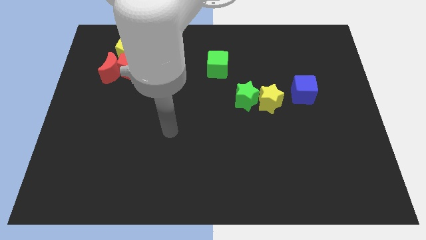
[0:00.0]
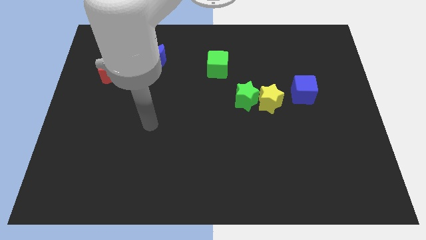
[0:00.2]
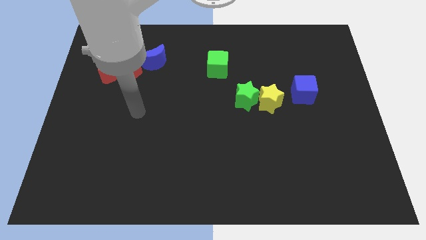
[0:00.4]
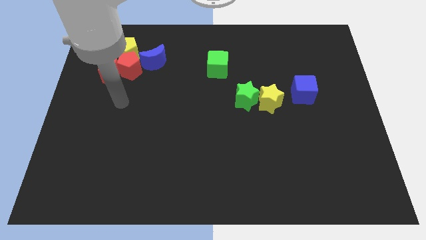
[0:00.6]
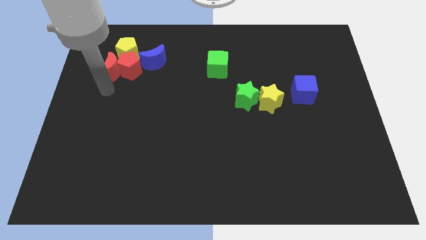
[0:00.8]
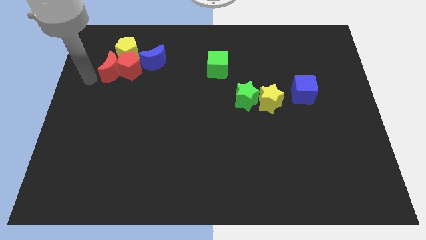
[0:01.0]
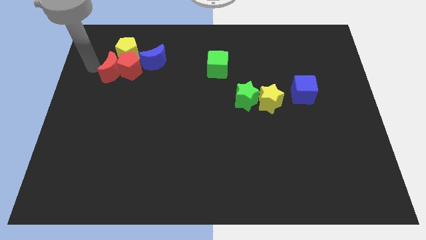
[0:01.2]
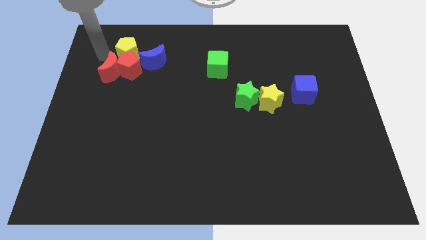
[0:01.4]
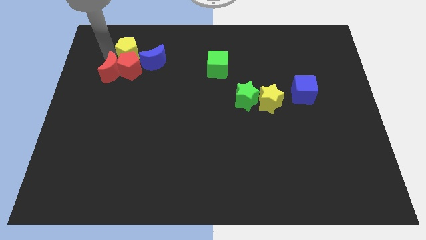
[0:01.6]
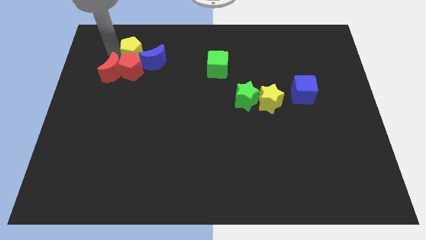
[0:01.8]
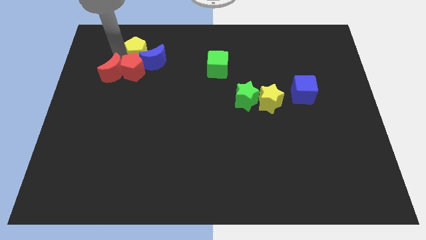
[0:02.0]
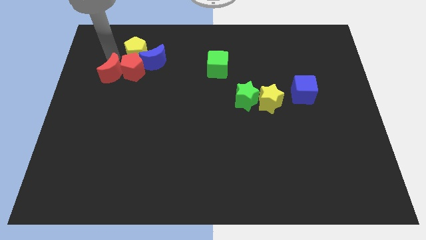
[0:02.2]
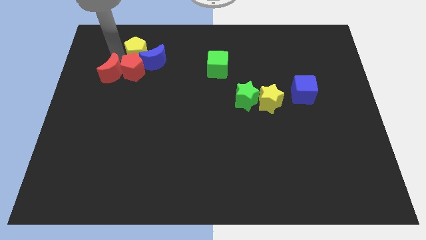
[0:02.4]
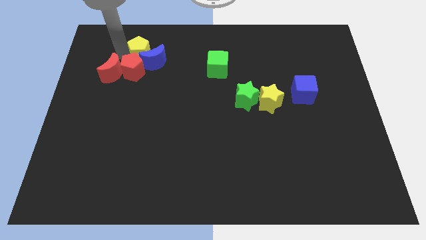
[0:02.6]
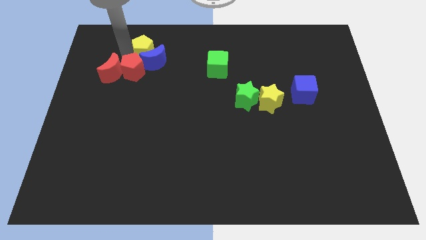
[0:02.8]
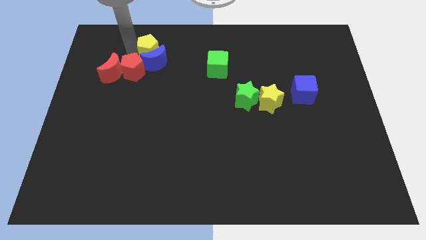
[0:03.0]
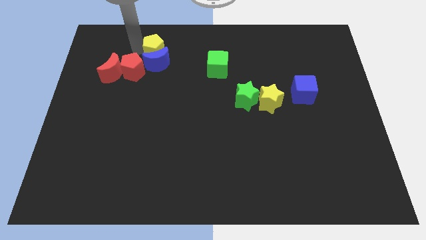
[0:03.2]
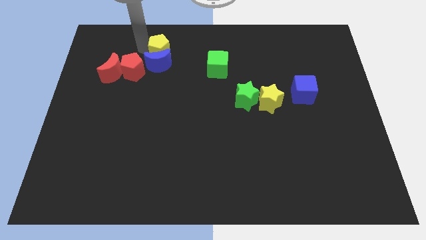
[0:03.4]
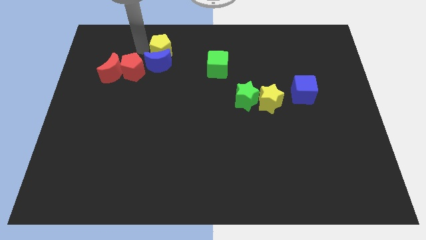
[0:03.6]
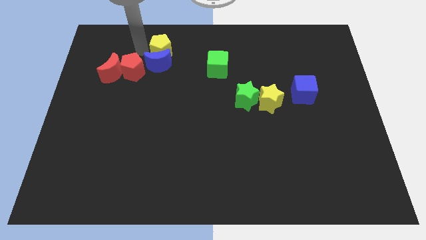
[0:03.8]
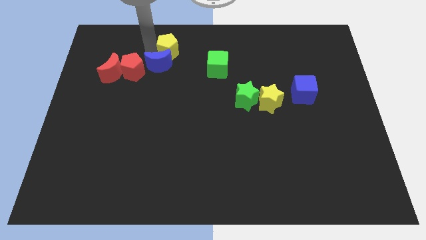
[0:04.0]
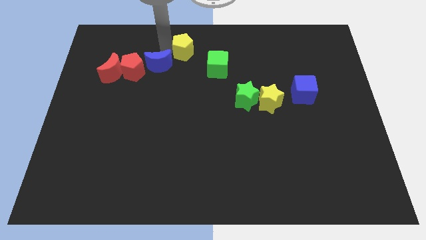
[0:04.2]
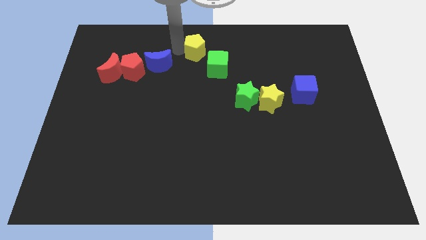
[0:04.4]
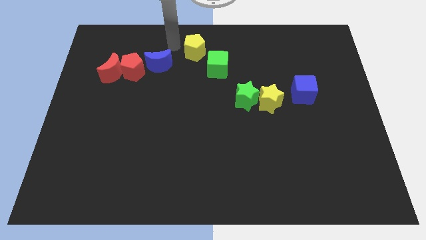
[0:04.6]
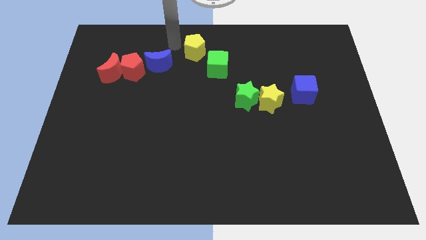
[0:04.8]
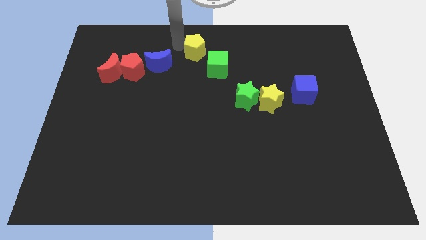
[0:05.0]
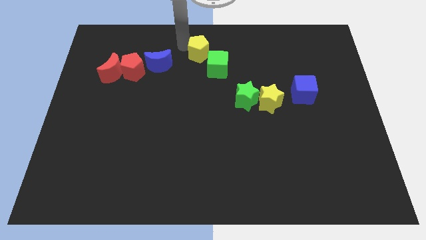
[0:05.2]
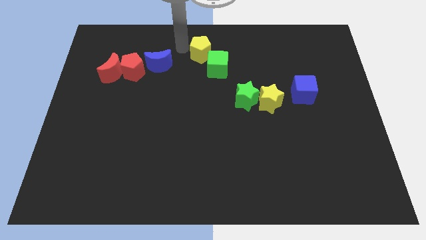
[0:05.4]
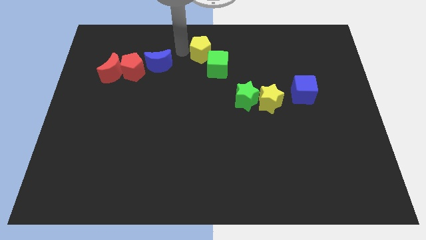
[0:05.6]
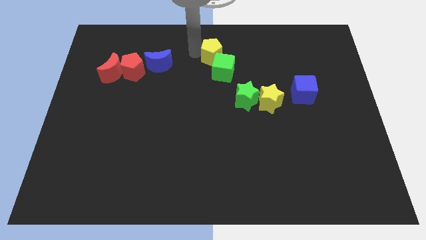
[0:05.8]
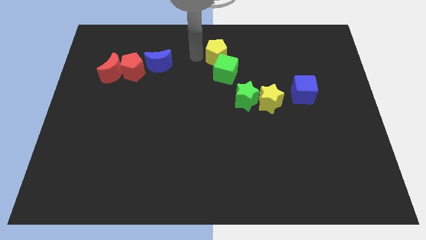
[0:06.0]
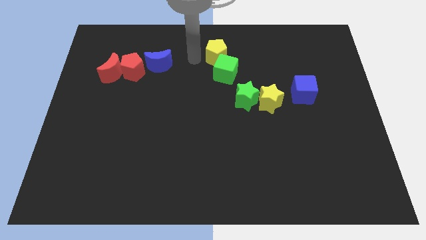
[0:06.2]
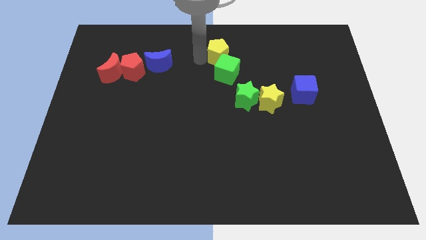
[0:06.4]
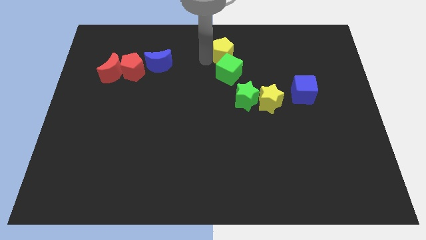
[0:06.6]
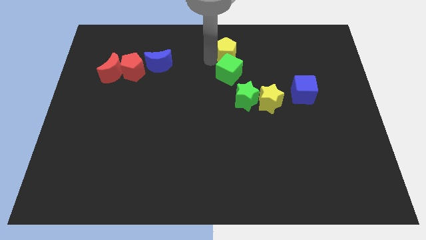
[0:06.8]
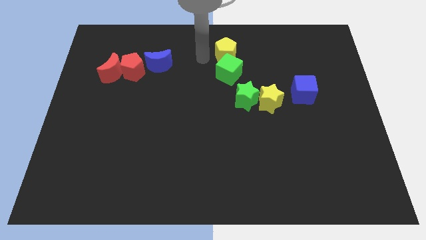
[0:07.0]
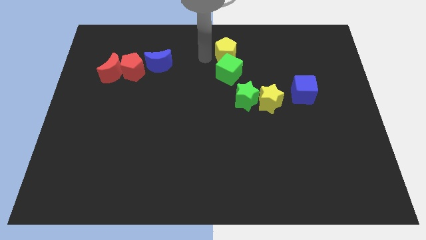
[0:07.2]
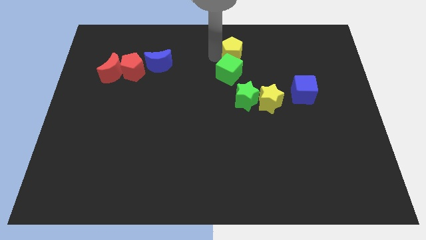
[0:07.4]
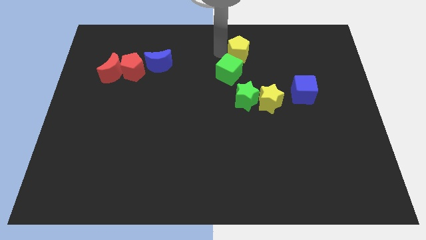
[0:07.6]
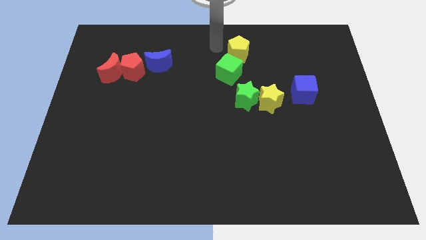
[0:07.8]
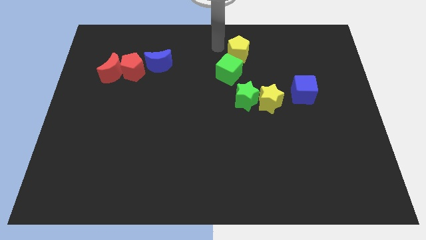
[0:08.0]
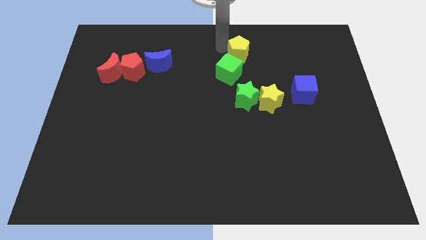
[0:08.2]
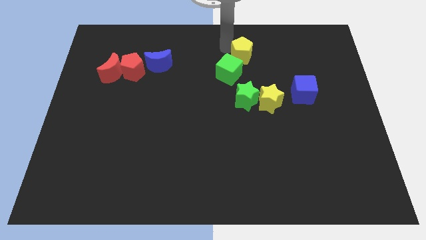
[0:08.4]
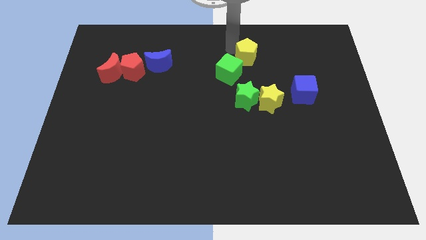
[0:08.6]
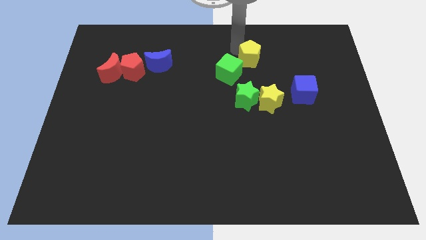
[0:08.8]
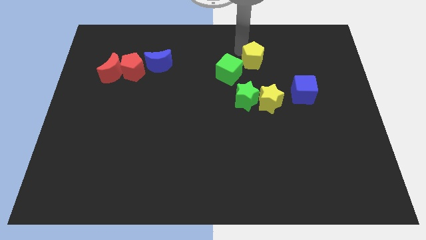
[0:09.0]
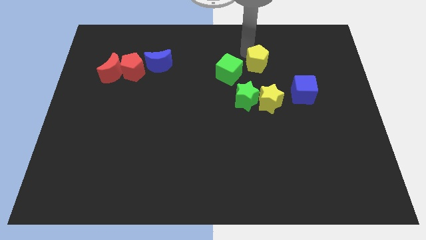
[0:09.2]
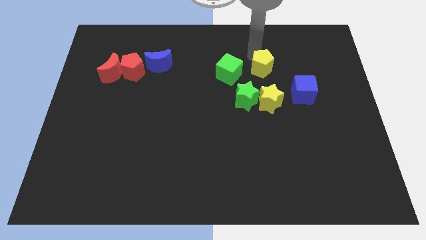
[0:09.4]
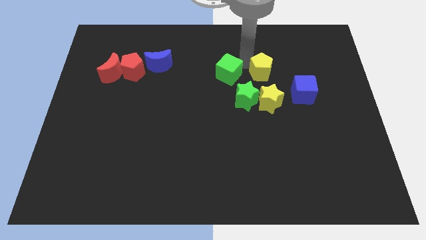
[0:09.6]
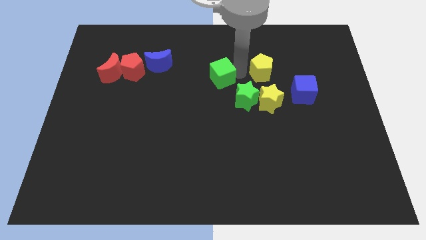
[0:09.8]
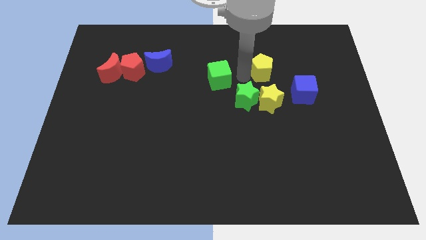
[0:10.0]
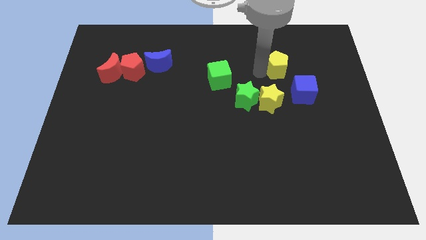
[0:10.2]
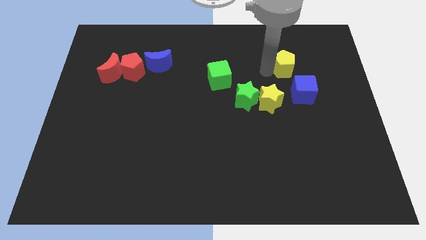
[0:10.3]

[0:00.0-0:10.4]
put the yellow pentagon above the blue cube

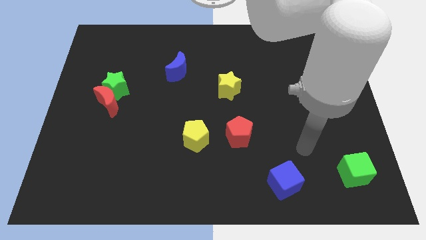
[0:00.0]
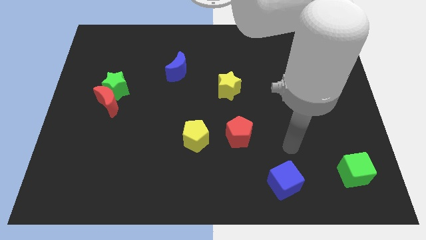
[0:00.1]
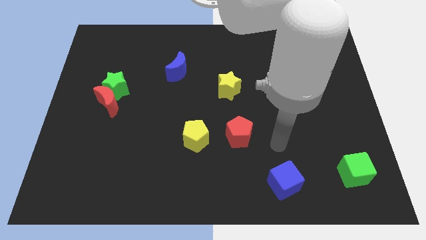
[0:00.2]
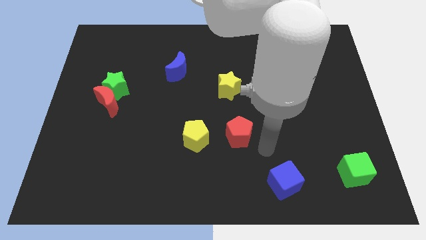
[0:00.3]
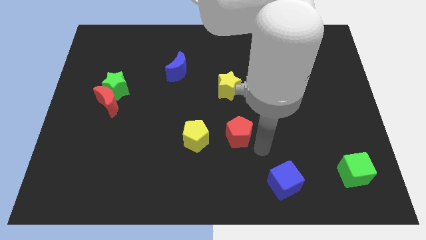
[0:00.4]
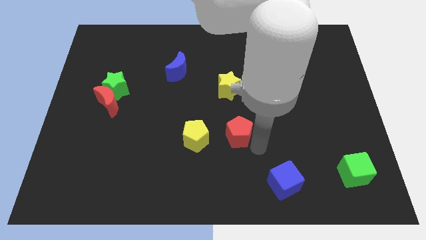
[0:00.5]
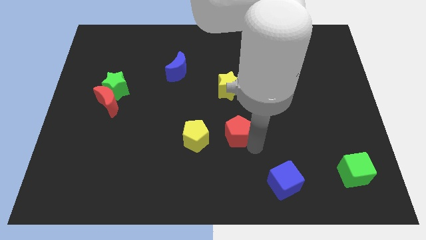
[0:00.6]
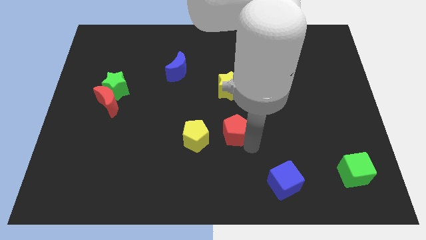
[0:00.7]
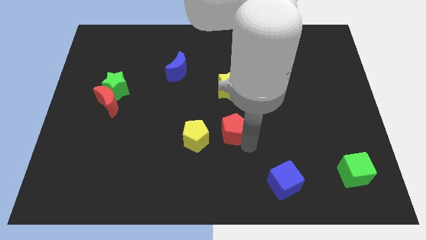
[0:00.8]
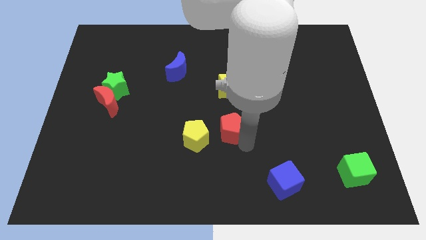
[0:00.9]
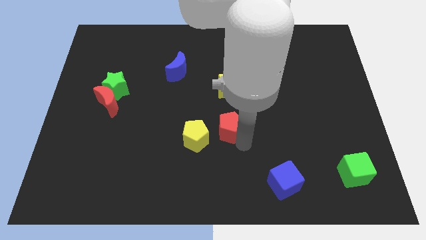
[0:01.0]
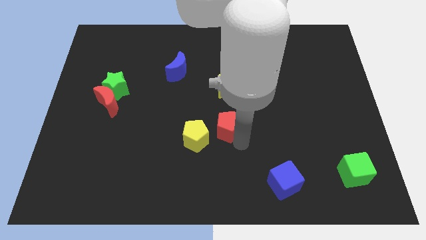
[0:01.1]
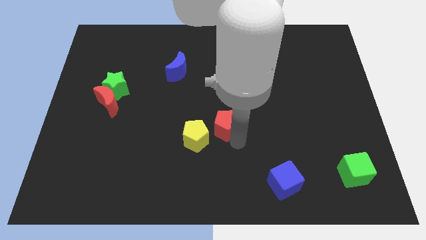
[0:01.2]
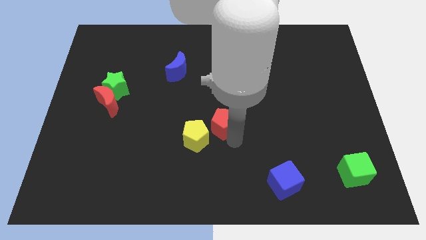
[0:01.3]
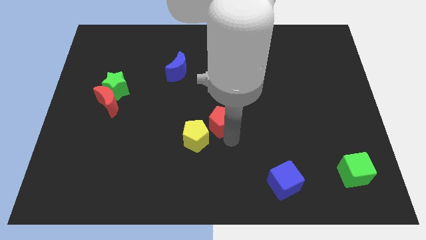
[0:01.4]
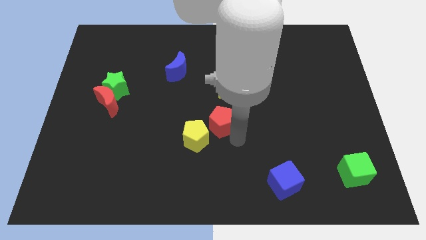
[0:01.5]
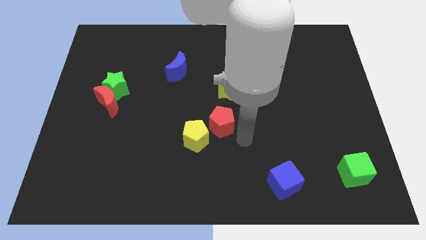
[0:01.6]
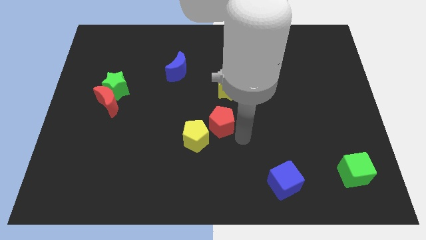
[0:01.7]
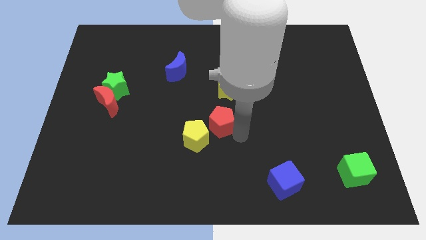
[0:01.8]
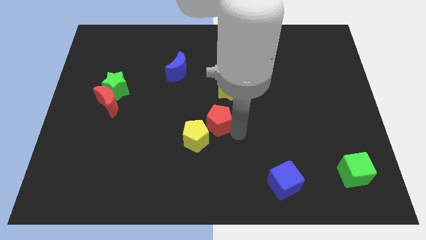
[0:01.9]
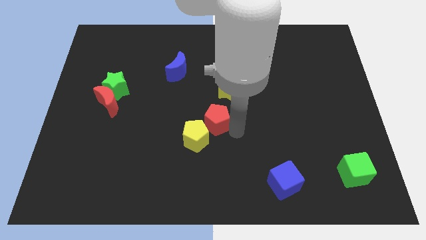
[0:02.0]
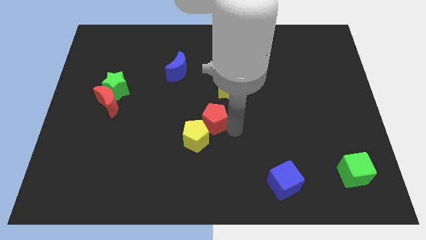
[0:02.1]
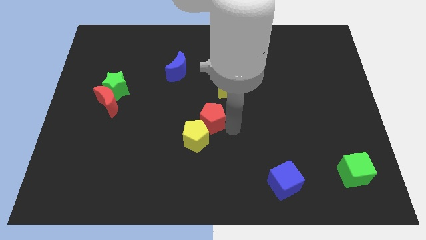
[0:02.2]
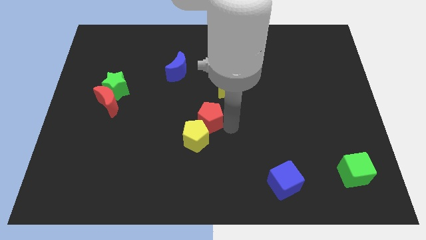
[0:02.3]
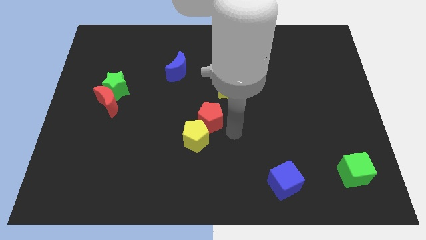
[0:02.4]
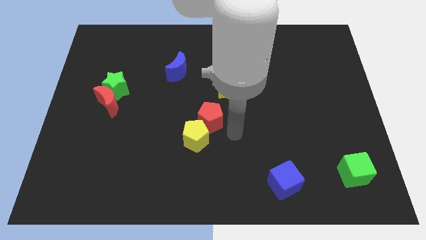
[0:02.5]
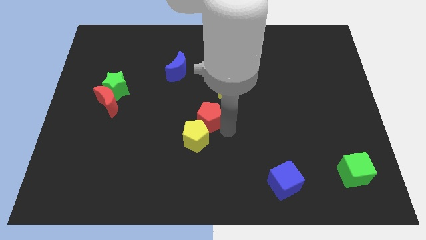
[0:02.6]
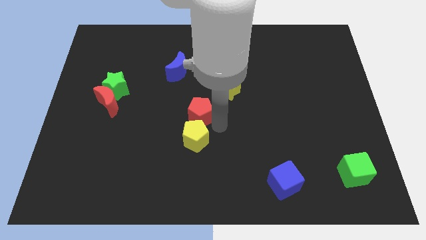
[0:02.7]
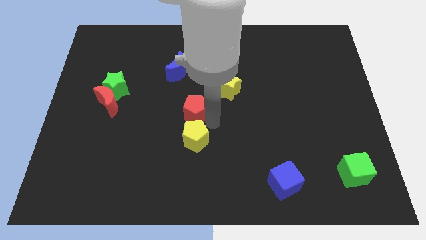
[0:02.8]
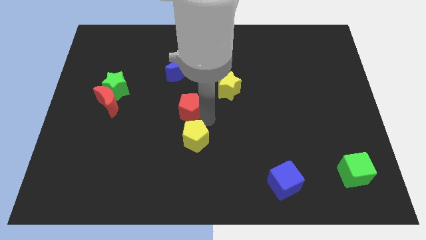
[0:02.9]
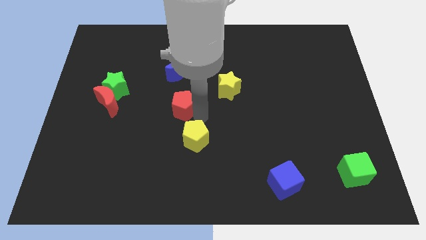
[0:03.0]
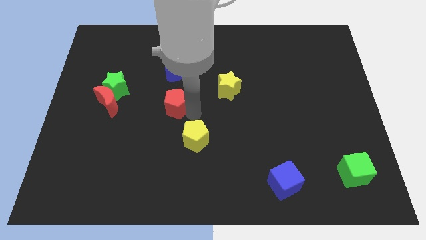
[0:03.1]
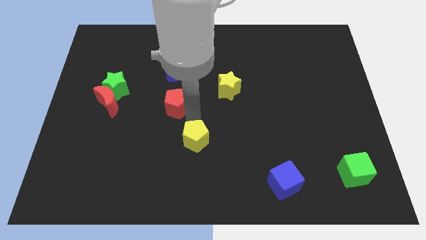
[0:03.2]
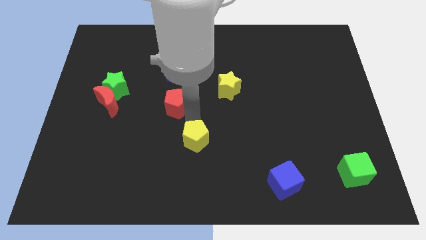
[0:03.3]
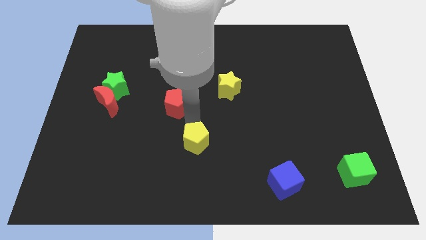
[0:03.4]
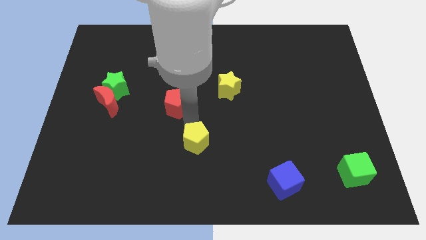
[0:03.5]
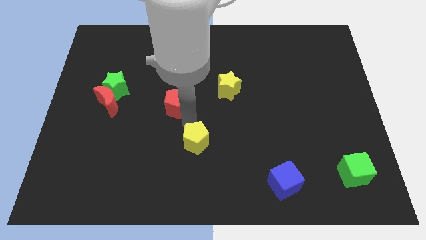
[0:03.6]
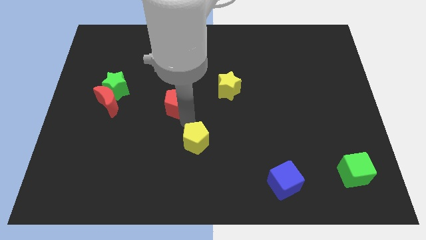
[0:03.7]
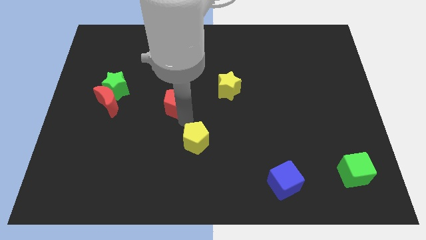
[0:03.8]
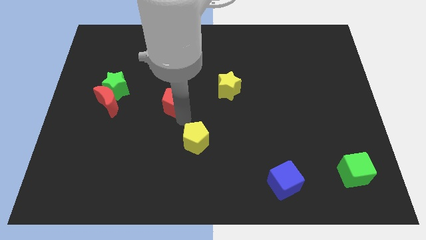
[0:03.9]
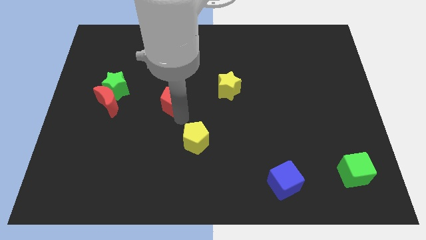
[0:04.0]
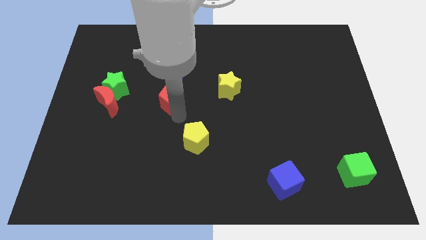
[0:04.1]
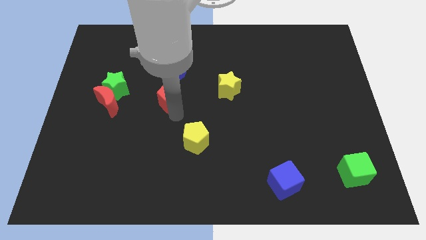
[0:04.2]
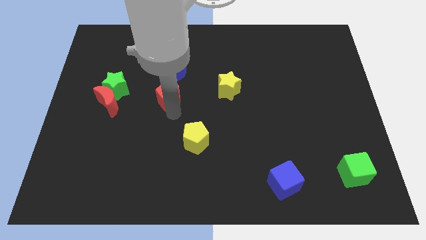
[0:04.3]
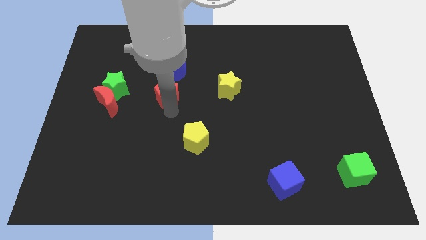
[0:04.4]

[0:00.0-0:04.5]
put the red pentagon to the bottom left of the blue moon
